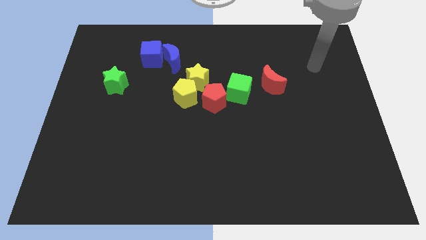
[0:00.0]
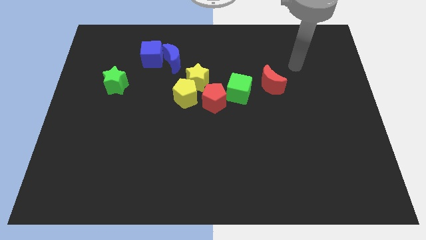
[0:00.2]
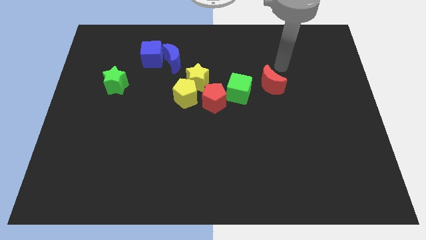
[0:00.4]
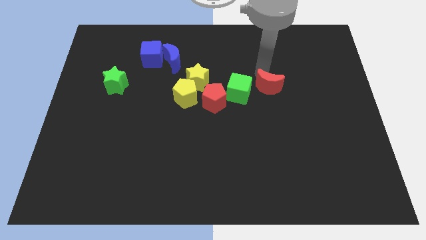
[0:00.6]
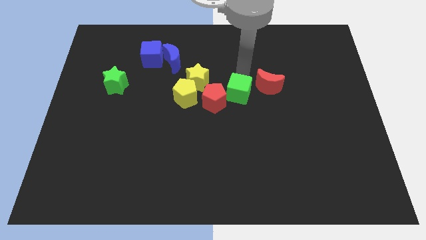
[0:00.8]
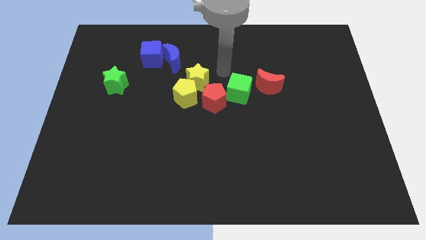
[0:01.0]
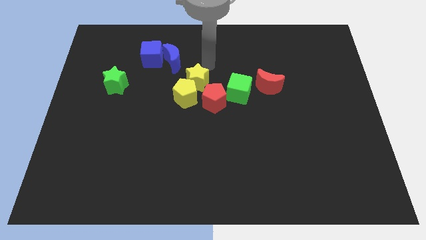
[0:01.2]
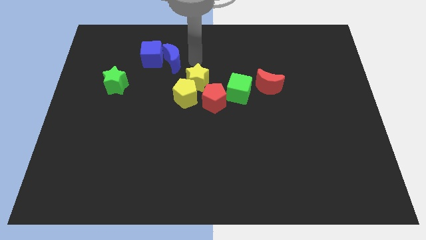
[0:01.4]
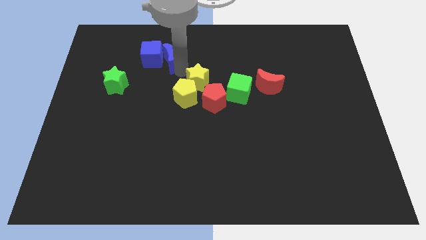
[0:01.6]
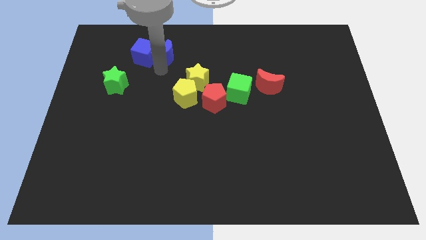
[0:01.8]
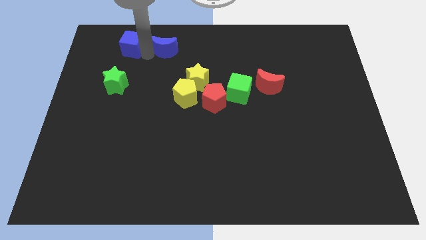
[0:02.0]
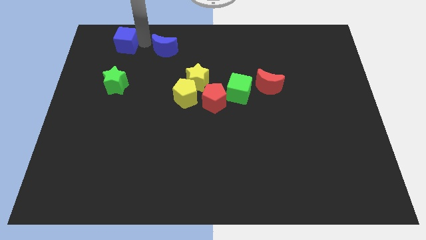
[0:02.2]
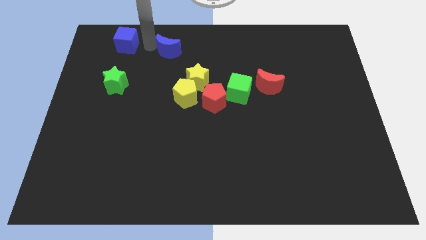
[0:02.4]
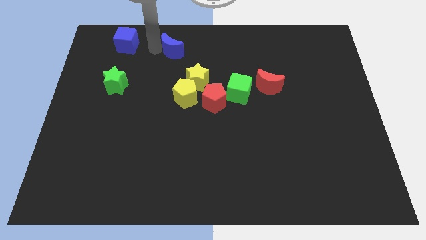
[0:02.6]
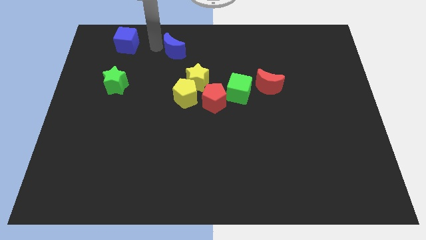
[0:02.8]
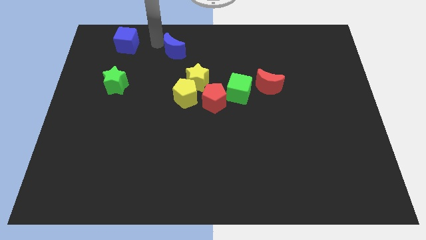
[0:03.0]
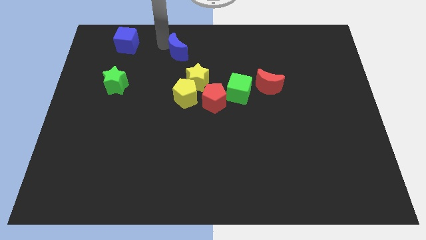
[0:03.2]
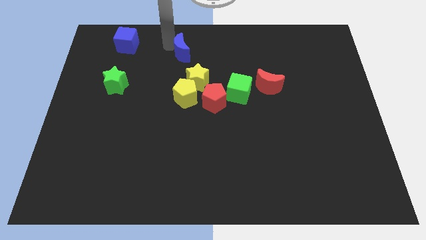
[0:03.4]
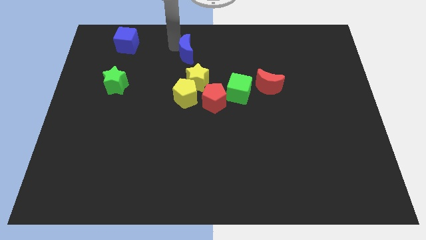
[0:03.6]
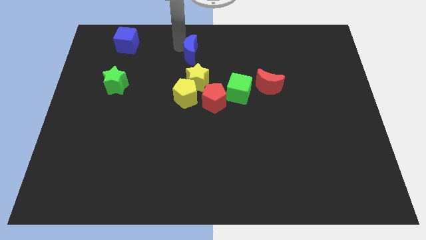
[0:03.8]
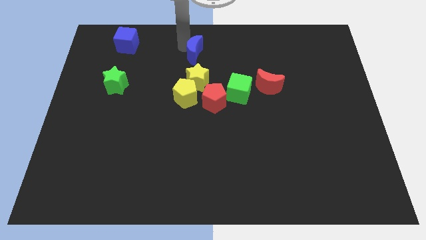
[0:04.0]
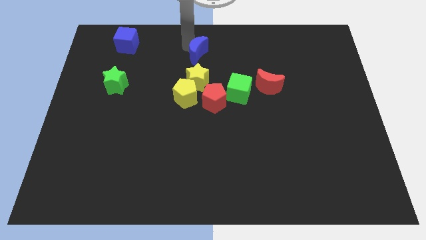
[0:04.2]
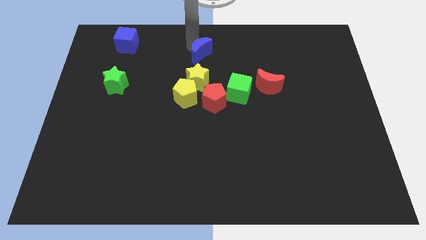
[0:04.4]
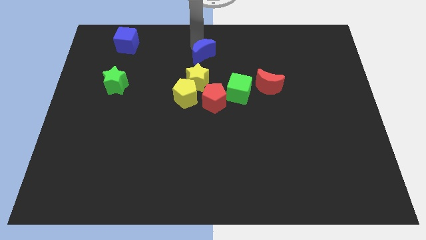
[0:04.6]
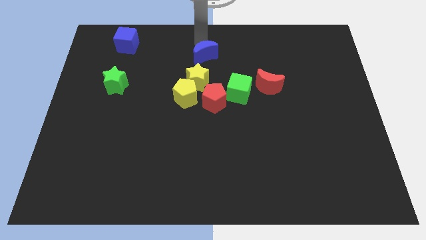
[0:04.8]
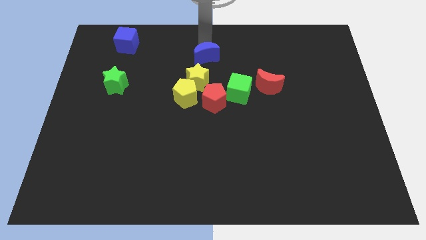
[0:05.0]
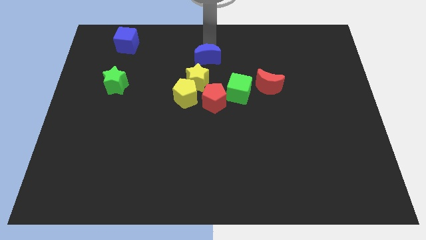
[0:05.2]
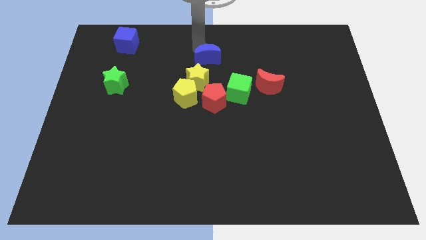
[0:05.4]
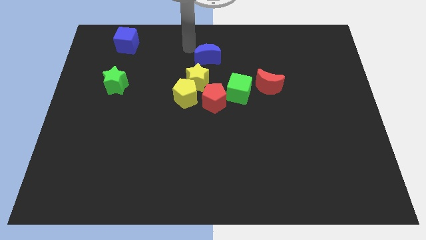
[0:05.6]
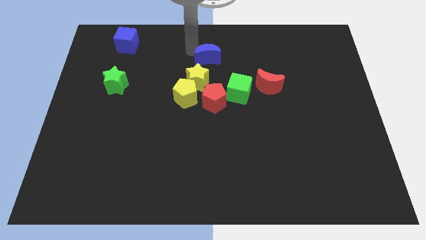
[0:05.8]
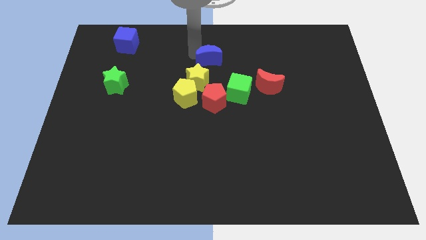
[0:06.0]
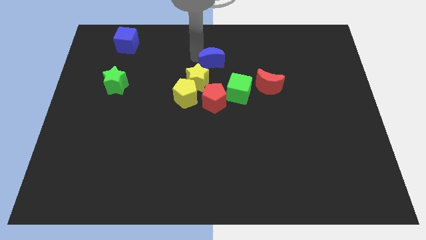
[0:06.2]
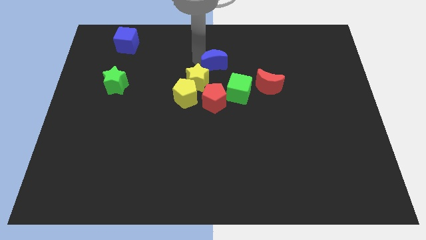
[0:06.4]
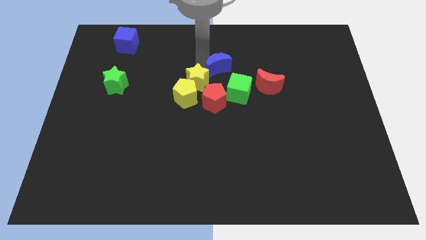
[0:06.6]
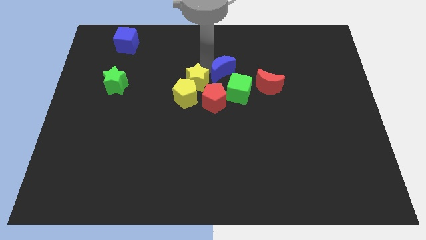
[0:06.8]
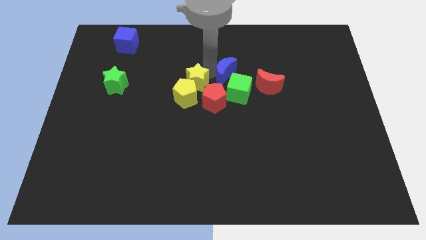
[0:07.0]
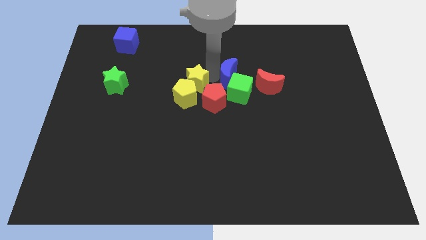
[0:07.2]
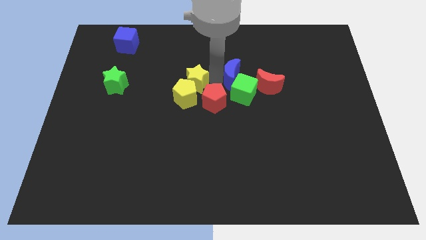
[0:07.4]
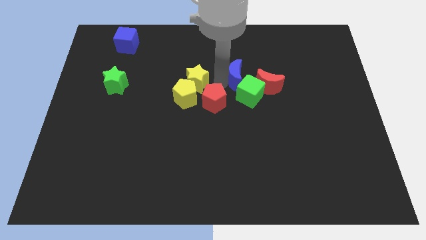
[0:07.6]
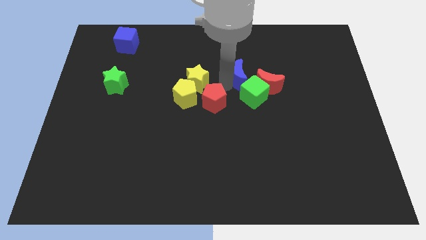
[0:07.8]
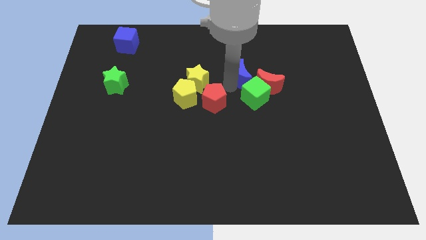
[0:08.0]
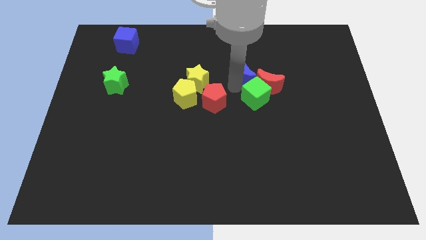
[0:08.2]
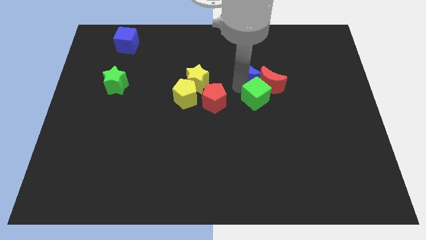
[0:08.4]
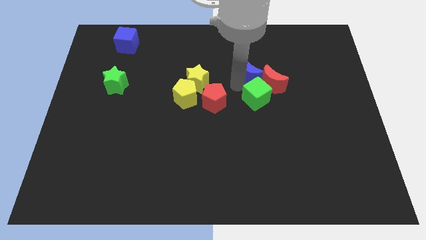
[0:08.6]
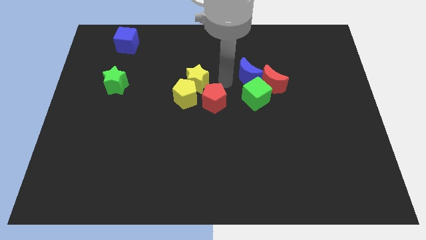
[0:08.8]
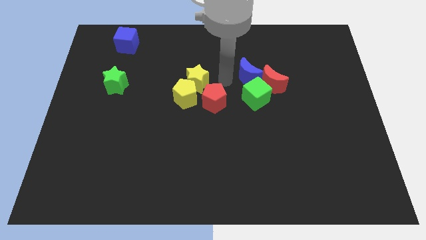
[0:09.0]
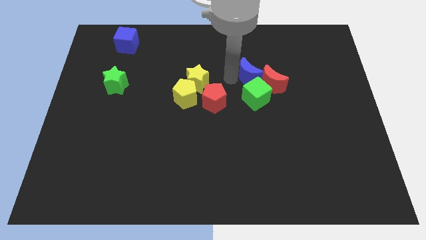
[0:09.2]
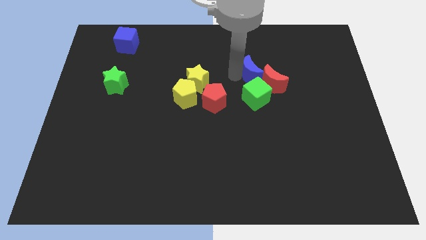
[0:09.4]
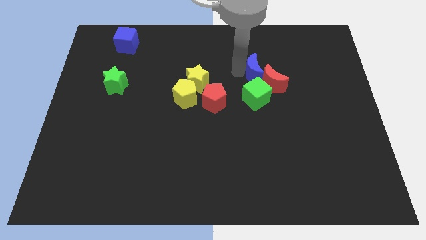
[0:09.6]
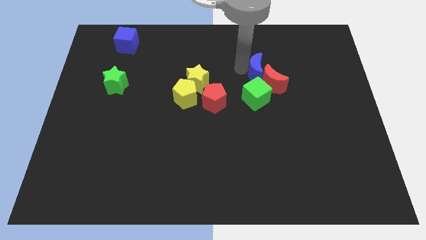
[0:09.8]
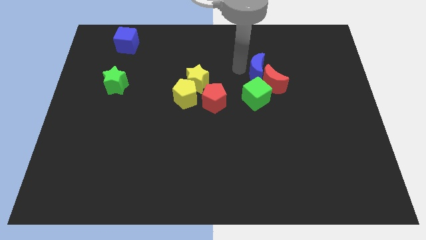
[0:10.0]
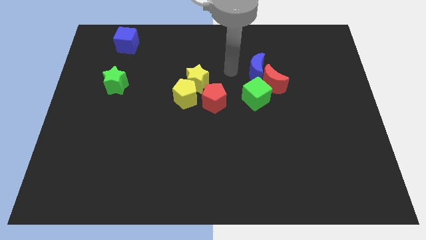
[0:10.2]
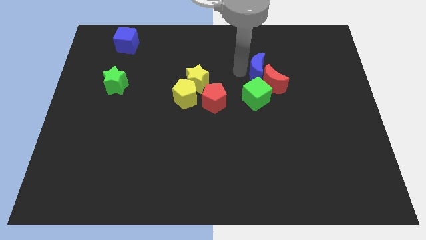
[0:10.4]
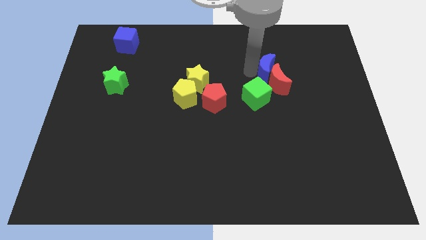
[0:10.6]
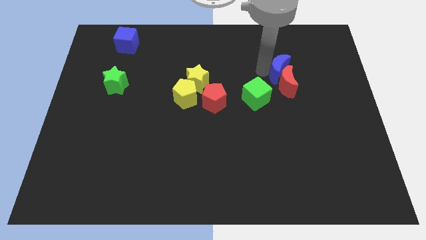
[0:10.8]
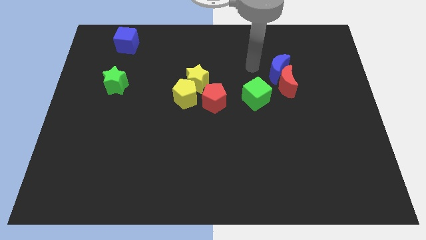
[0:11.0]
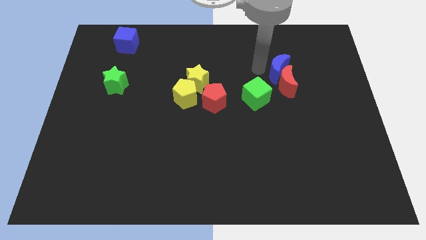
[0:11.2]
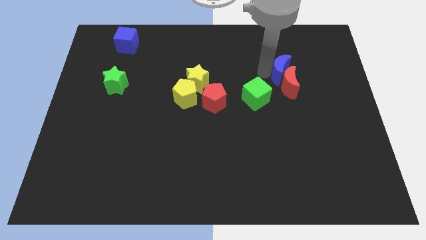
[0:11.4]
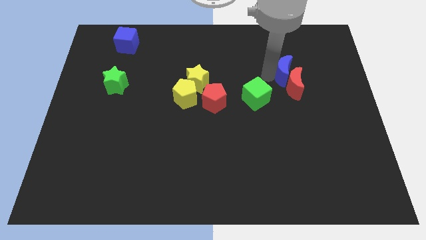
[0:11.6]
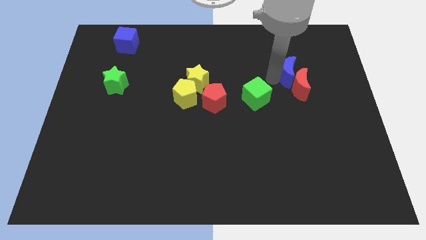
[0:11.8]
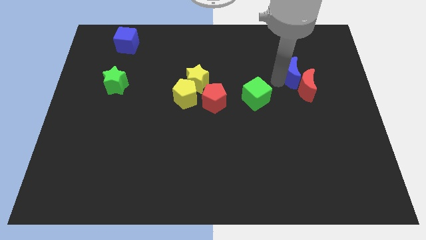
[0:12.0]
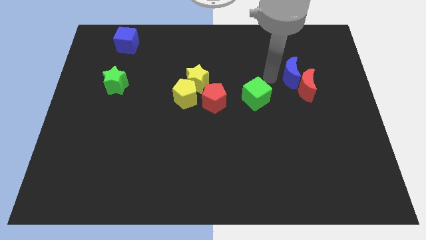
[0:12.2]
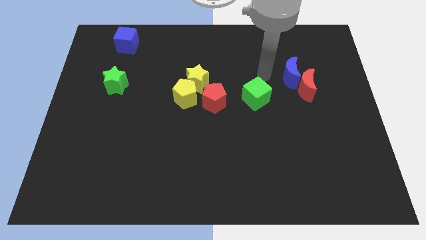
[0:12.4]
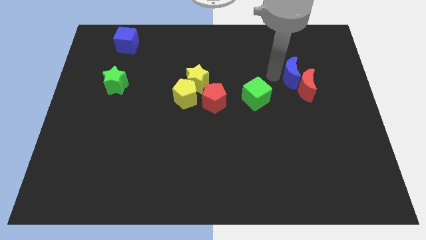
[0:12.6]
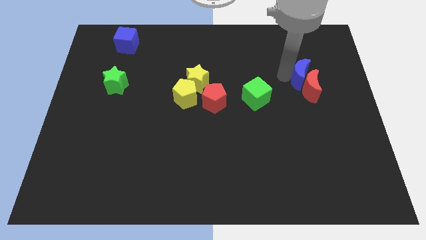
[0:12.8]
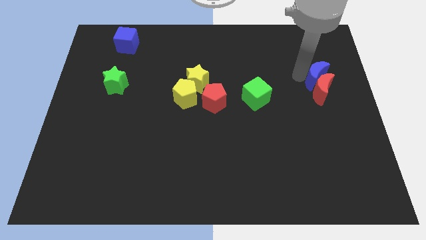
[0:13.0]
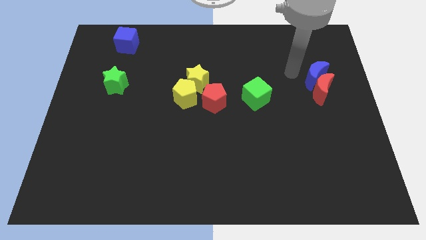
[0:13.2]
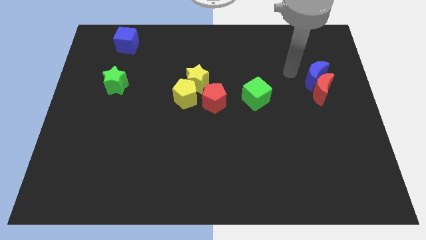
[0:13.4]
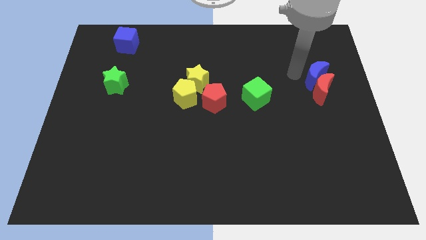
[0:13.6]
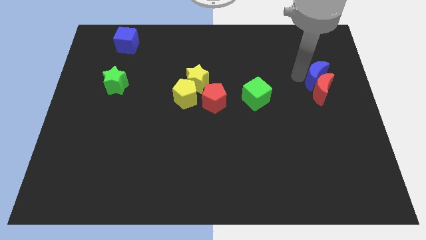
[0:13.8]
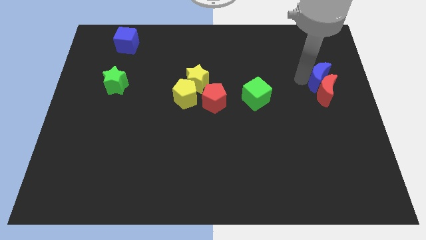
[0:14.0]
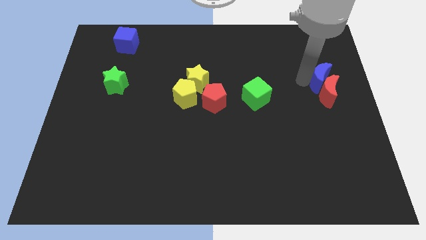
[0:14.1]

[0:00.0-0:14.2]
put the blue moon to the right side
